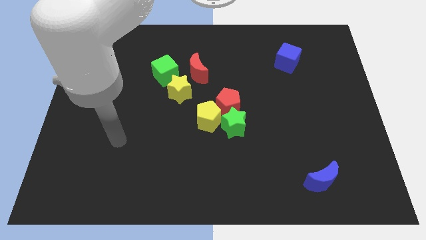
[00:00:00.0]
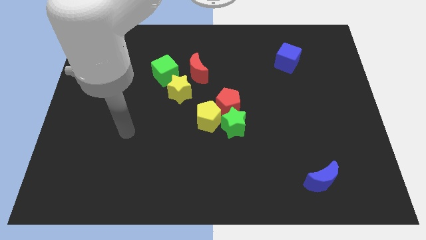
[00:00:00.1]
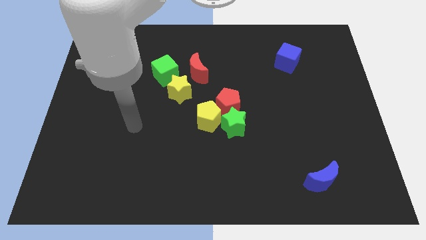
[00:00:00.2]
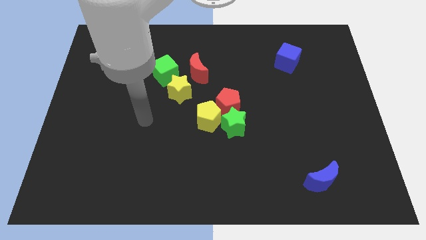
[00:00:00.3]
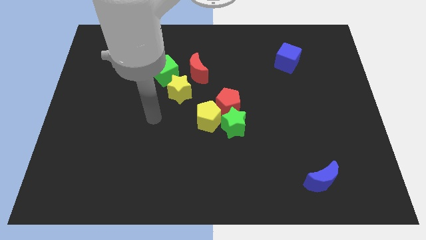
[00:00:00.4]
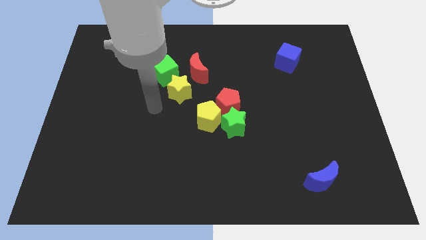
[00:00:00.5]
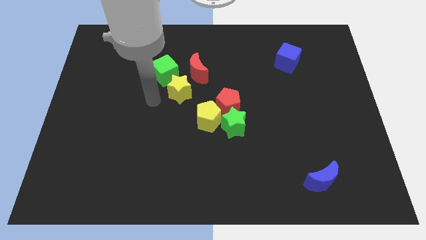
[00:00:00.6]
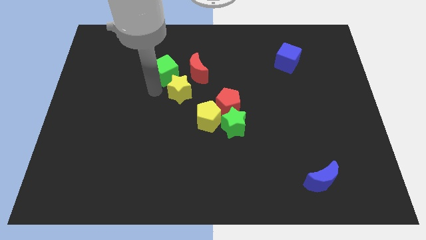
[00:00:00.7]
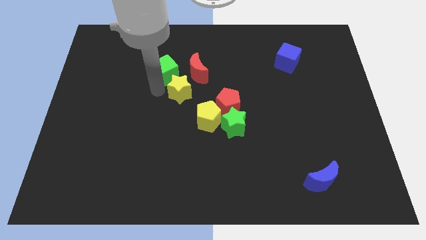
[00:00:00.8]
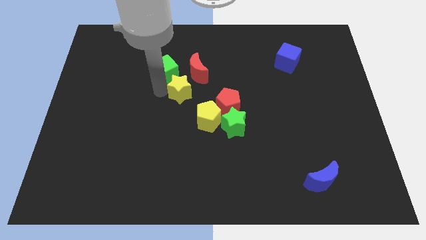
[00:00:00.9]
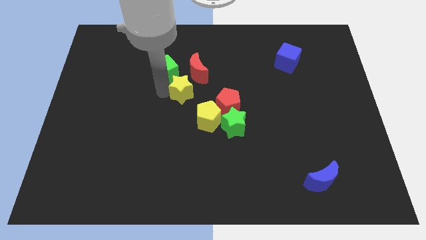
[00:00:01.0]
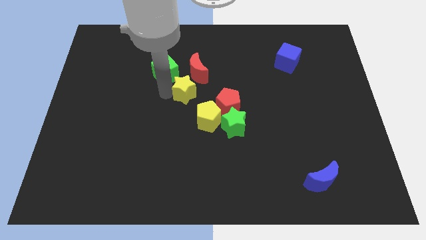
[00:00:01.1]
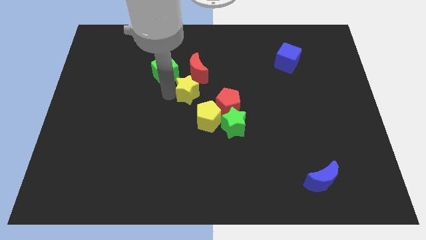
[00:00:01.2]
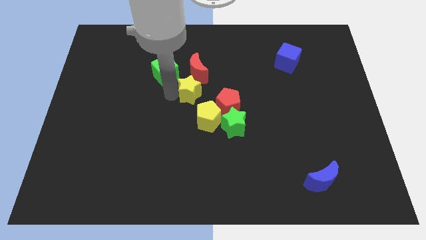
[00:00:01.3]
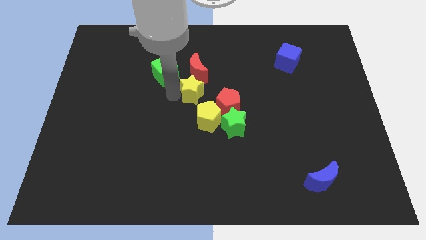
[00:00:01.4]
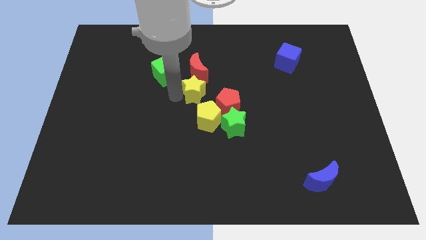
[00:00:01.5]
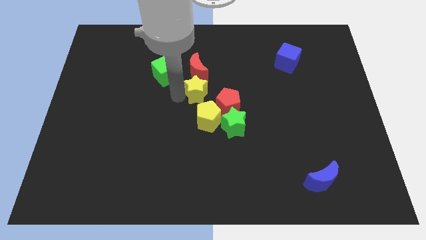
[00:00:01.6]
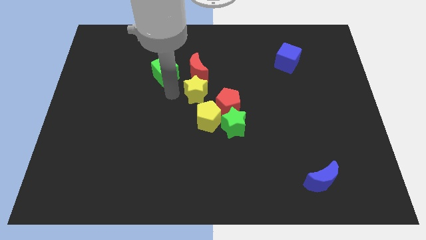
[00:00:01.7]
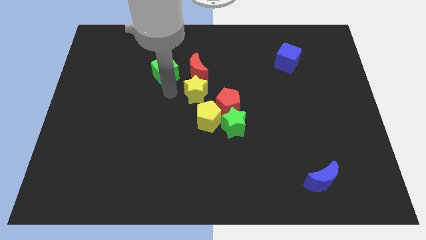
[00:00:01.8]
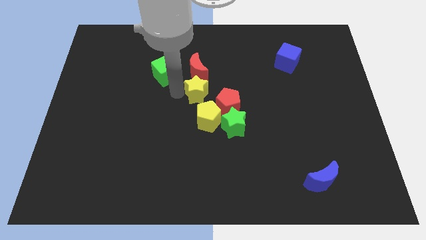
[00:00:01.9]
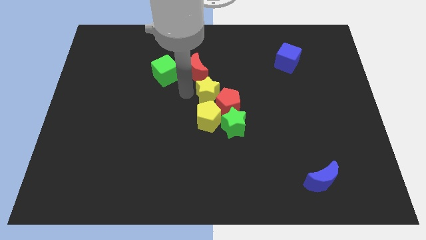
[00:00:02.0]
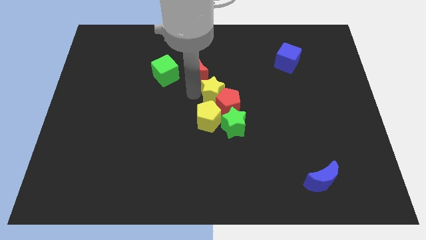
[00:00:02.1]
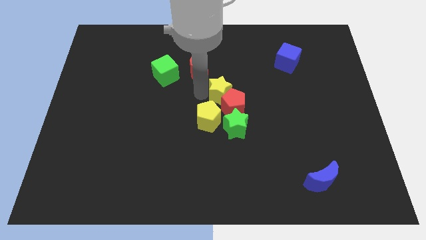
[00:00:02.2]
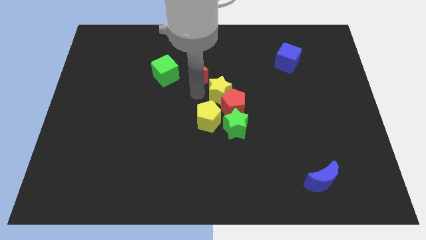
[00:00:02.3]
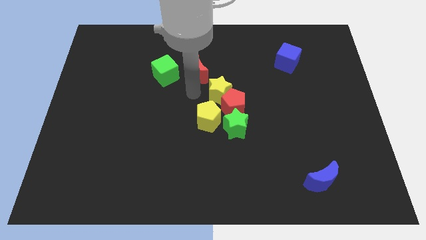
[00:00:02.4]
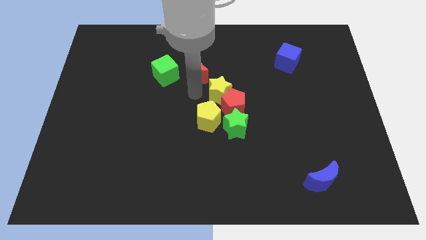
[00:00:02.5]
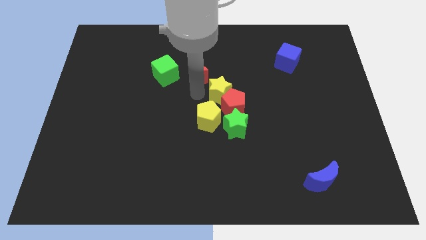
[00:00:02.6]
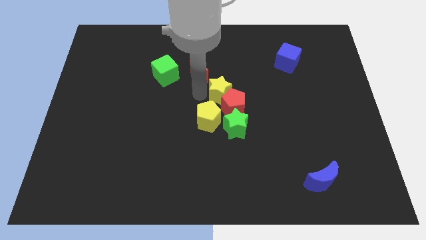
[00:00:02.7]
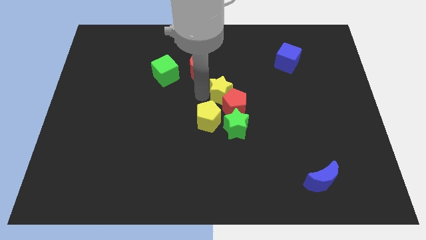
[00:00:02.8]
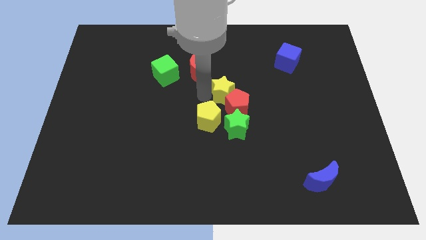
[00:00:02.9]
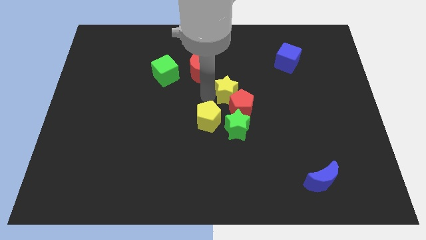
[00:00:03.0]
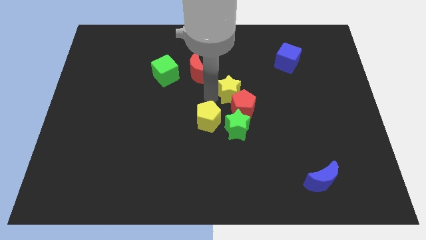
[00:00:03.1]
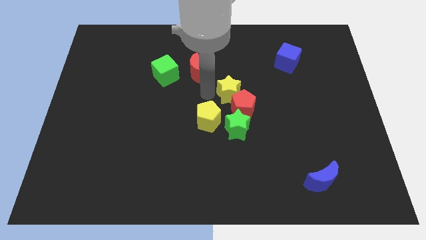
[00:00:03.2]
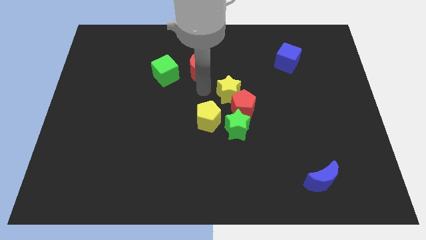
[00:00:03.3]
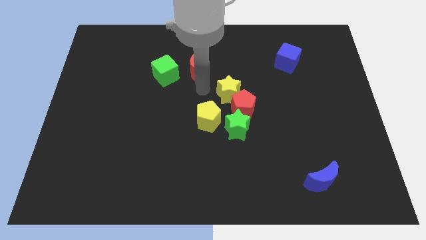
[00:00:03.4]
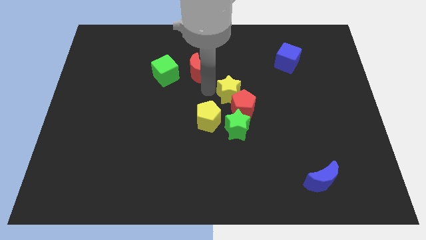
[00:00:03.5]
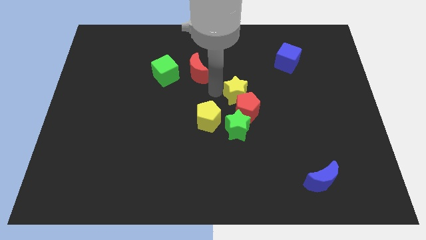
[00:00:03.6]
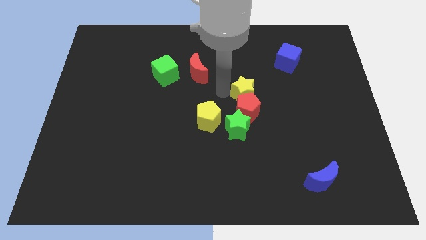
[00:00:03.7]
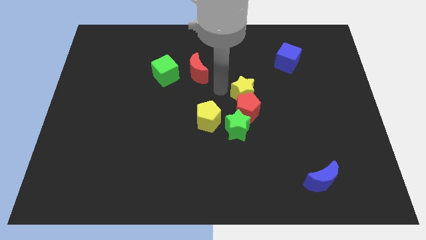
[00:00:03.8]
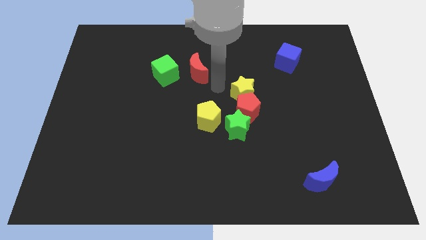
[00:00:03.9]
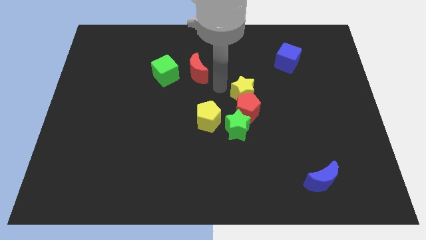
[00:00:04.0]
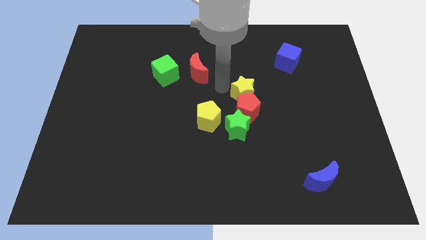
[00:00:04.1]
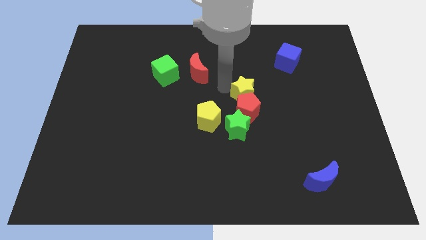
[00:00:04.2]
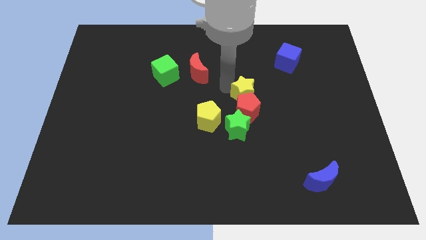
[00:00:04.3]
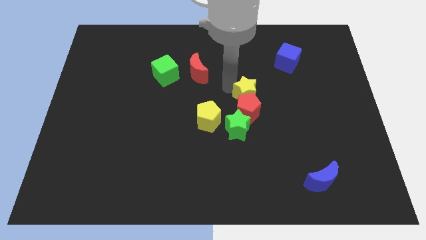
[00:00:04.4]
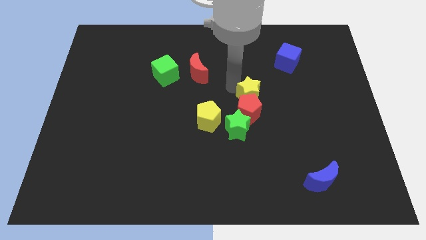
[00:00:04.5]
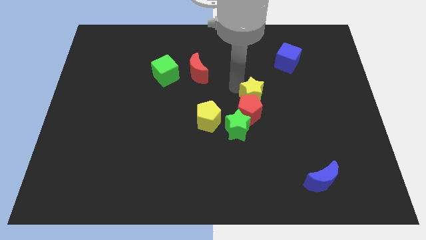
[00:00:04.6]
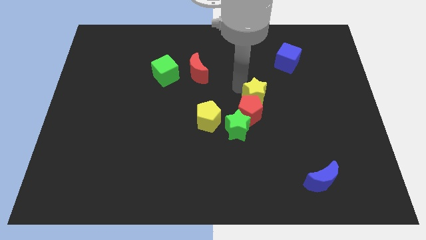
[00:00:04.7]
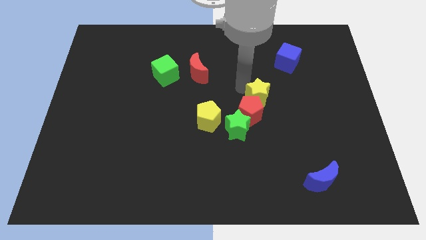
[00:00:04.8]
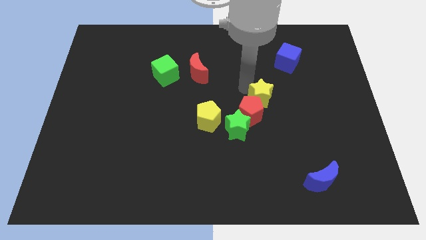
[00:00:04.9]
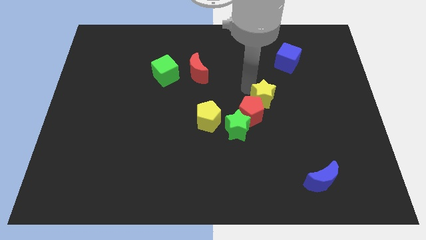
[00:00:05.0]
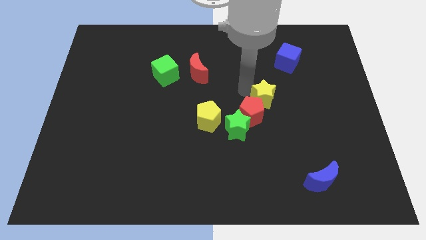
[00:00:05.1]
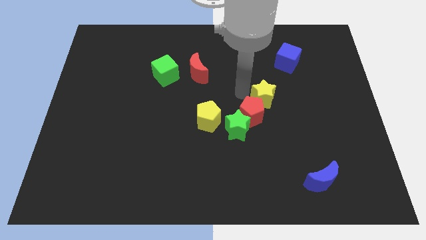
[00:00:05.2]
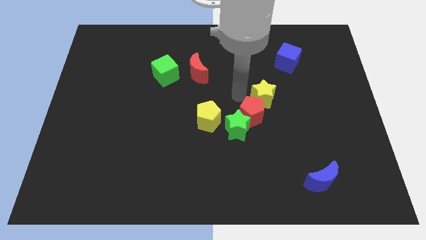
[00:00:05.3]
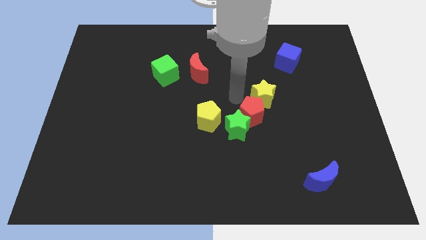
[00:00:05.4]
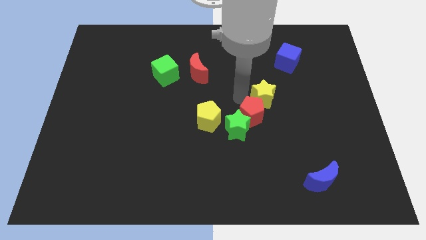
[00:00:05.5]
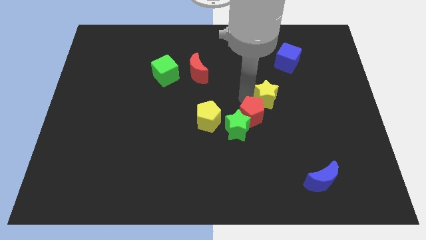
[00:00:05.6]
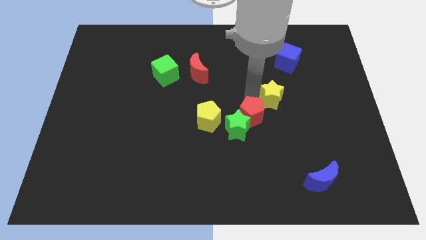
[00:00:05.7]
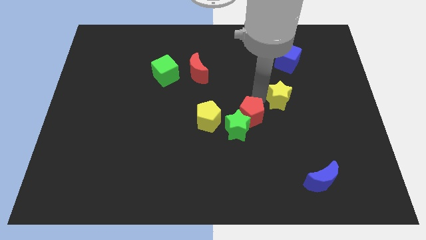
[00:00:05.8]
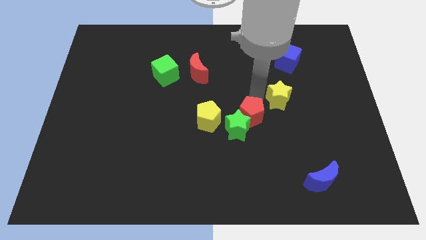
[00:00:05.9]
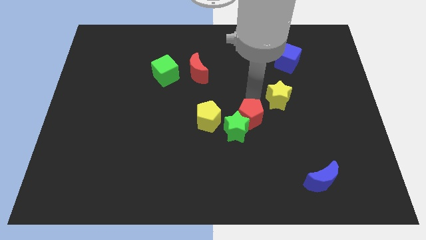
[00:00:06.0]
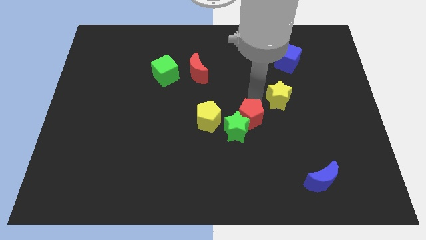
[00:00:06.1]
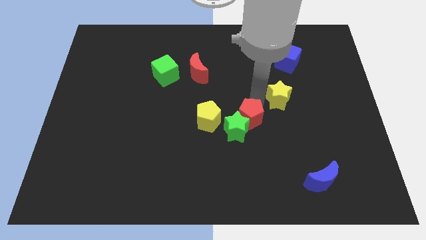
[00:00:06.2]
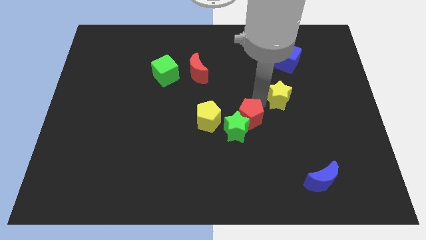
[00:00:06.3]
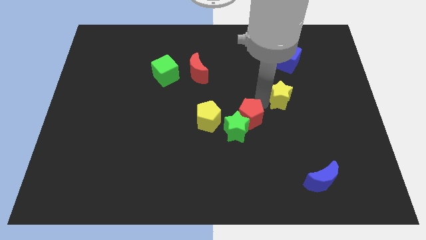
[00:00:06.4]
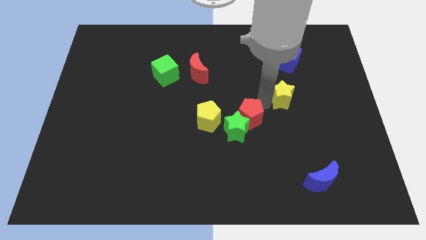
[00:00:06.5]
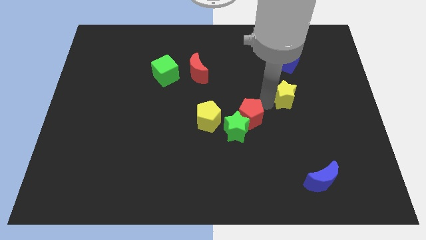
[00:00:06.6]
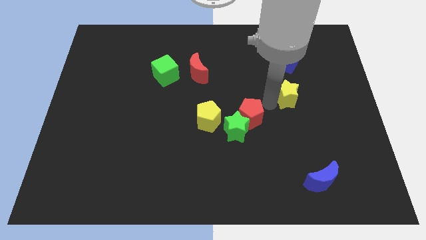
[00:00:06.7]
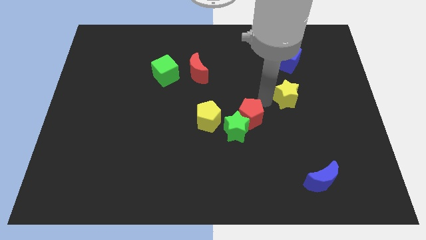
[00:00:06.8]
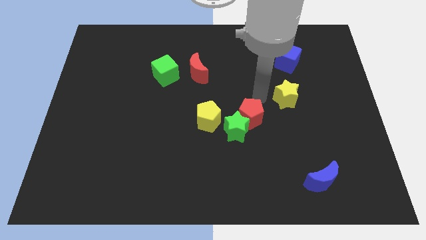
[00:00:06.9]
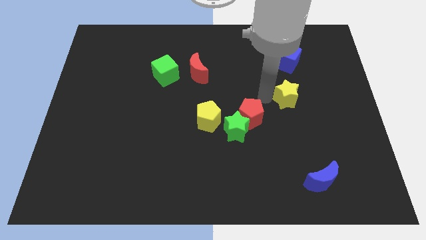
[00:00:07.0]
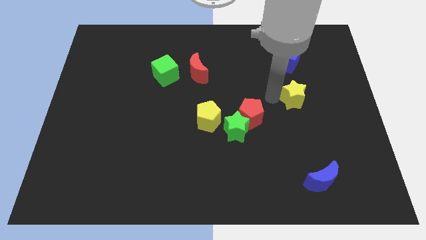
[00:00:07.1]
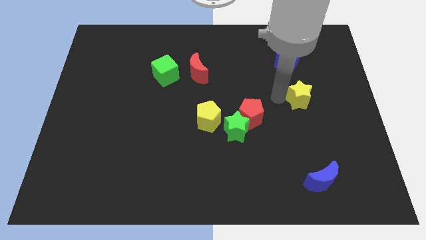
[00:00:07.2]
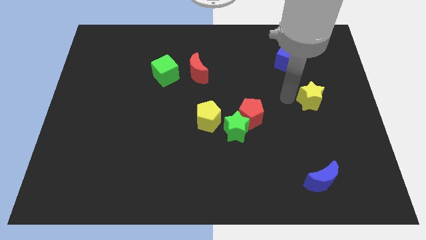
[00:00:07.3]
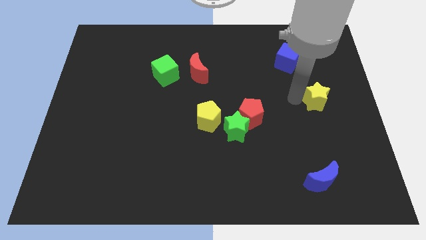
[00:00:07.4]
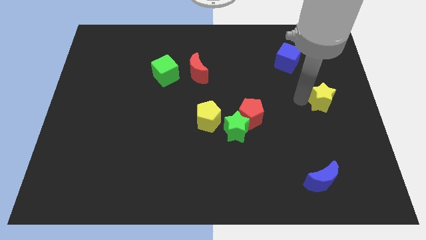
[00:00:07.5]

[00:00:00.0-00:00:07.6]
push the yellow star to the center right
